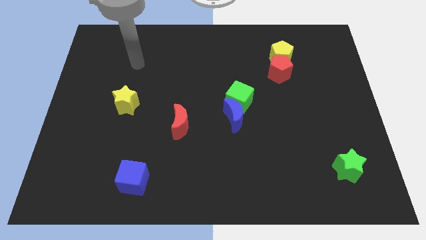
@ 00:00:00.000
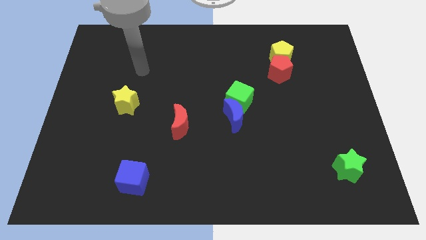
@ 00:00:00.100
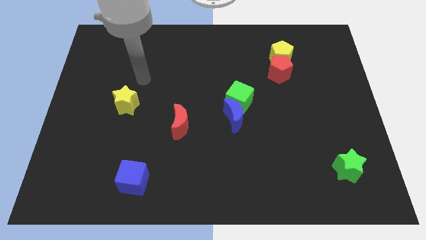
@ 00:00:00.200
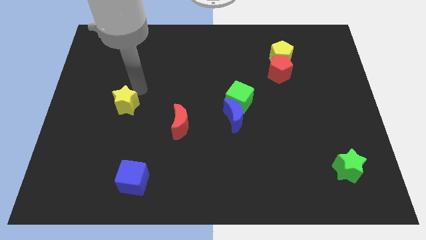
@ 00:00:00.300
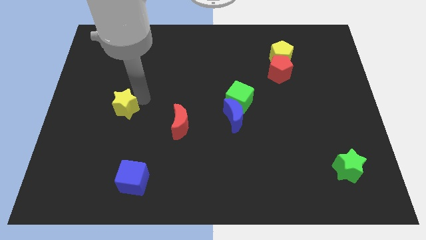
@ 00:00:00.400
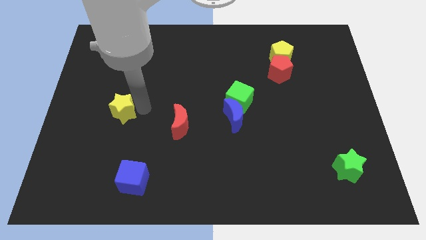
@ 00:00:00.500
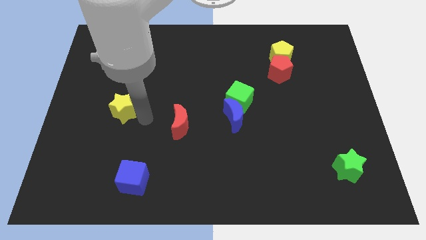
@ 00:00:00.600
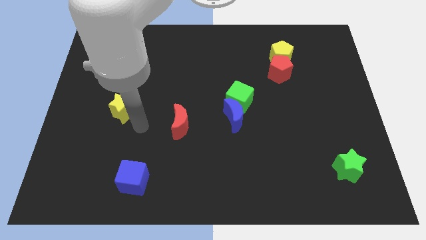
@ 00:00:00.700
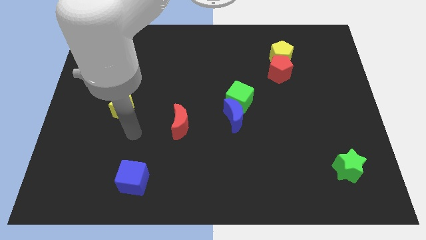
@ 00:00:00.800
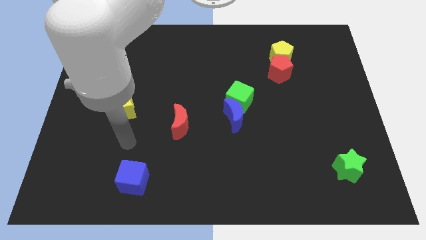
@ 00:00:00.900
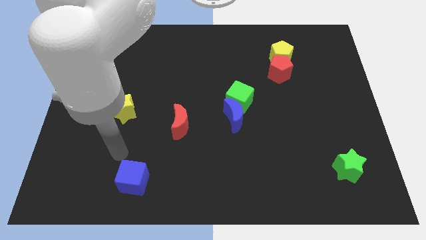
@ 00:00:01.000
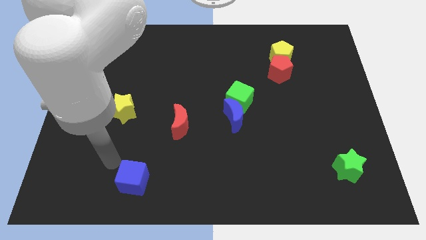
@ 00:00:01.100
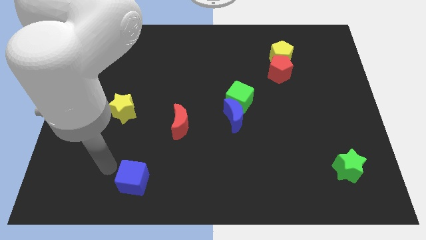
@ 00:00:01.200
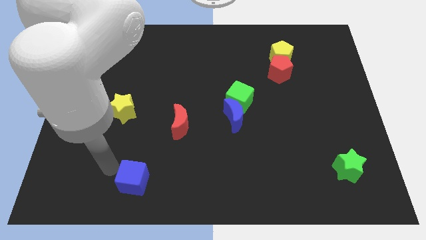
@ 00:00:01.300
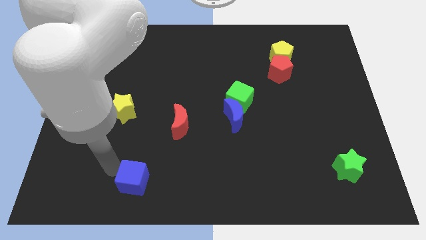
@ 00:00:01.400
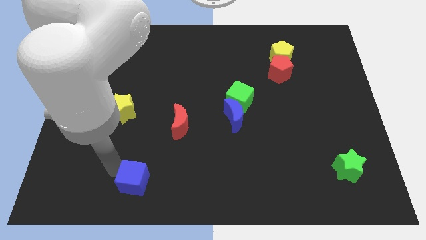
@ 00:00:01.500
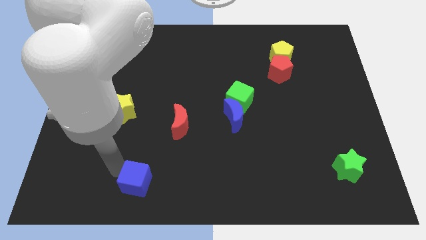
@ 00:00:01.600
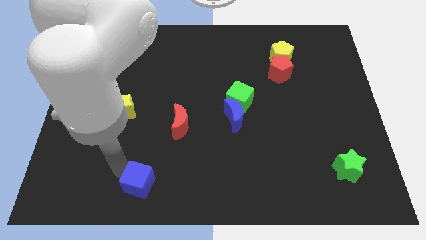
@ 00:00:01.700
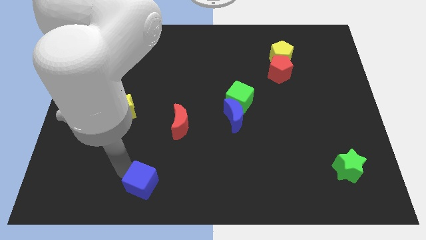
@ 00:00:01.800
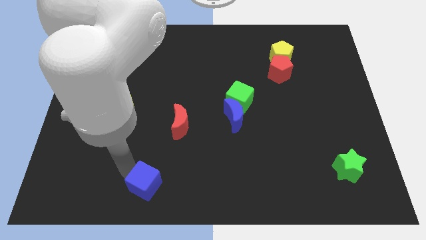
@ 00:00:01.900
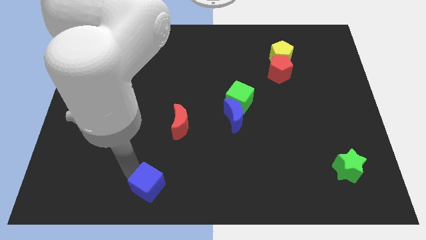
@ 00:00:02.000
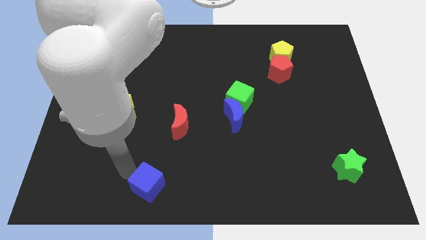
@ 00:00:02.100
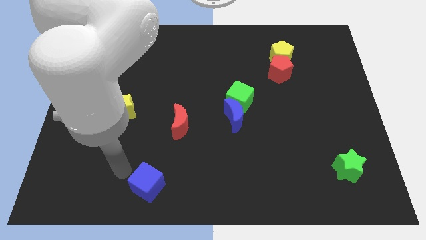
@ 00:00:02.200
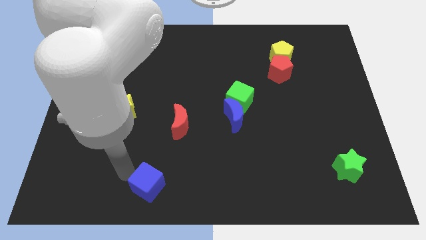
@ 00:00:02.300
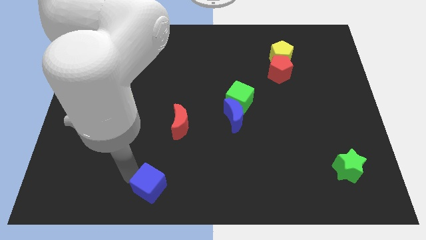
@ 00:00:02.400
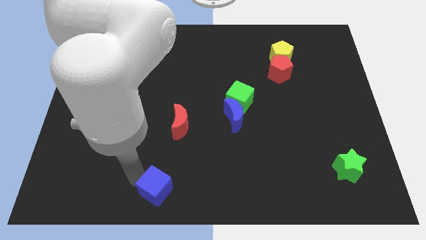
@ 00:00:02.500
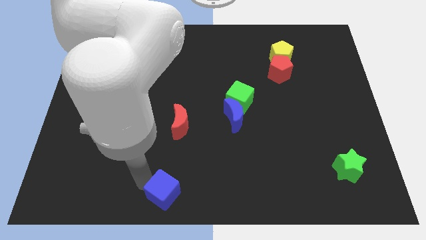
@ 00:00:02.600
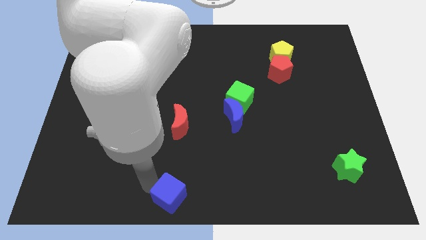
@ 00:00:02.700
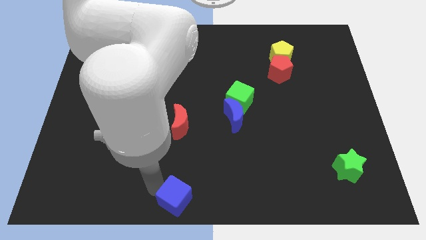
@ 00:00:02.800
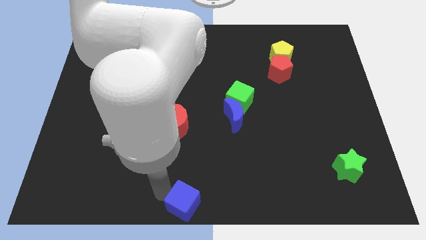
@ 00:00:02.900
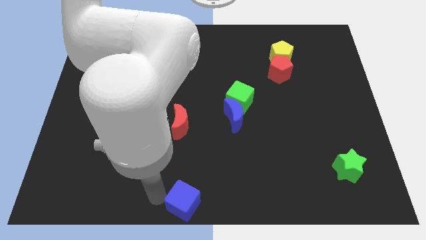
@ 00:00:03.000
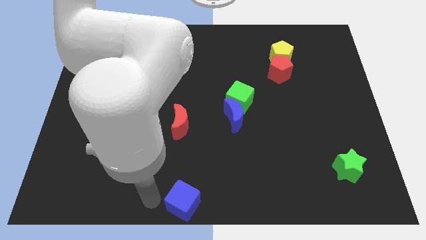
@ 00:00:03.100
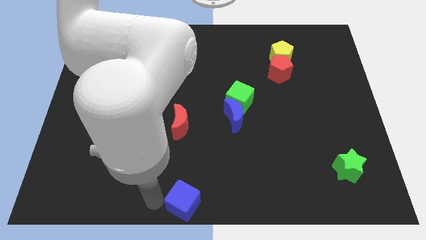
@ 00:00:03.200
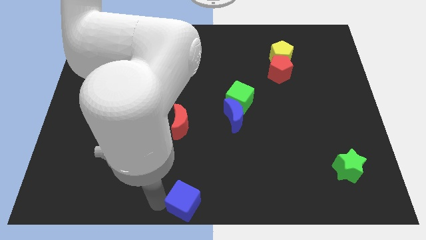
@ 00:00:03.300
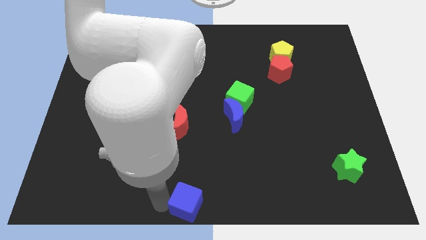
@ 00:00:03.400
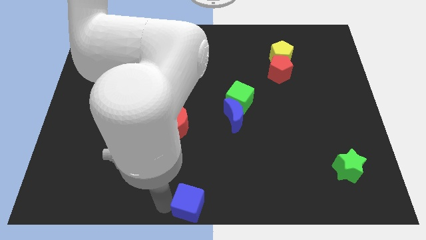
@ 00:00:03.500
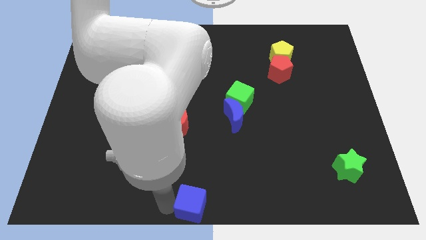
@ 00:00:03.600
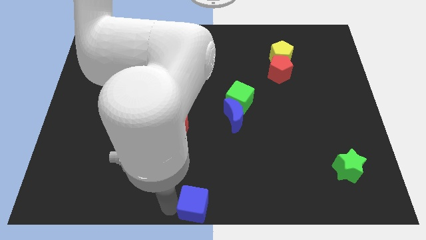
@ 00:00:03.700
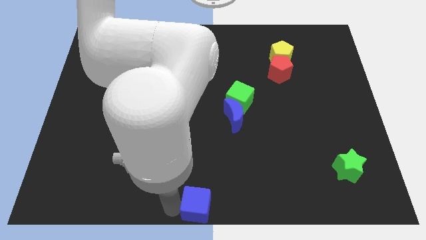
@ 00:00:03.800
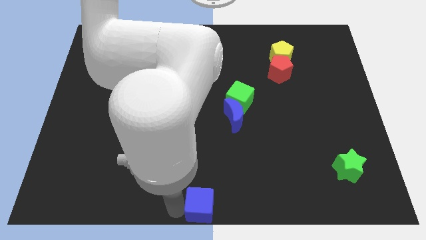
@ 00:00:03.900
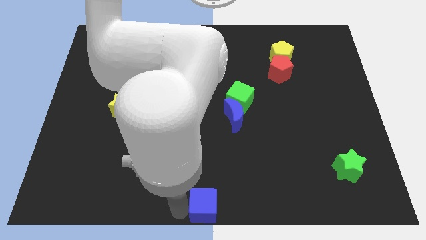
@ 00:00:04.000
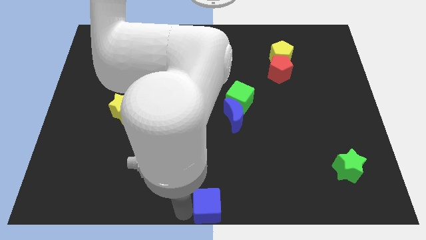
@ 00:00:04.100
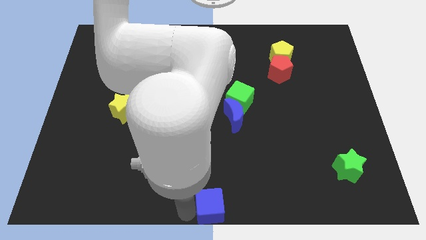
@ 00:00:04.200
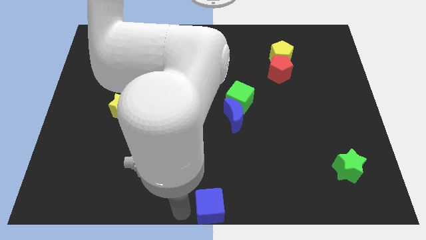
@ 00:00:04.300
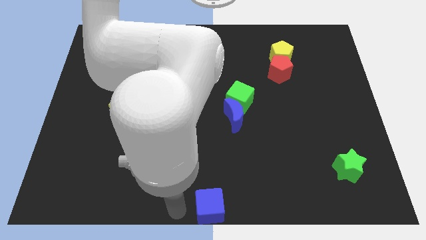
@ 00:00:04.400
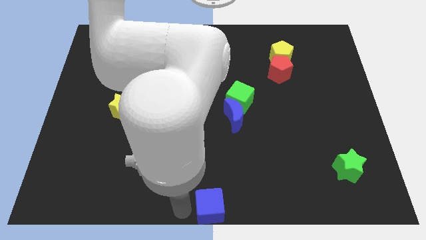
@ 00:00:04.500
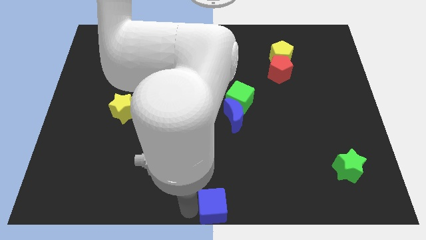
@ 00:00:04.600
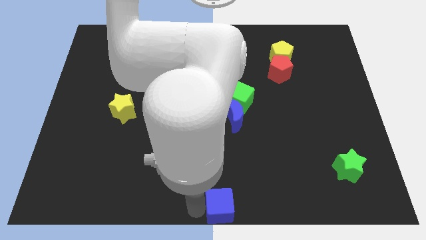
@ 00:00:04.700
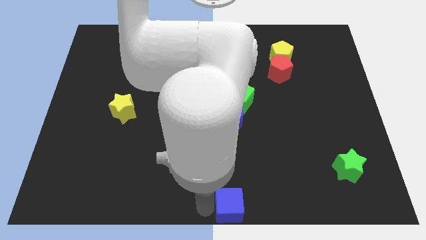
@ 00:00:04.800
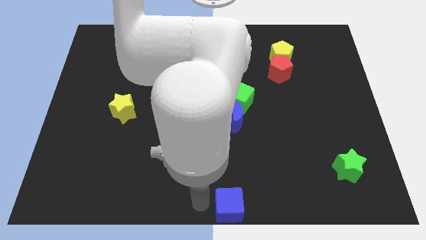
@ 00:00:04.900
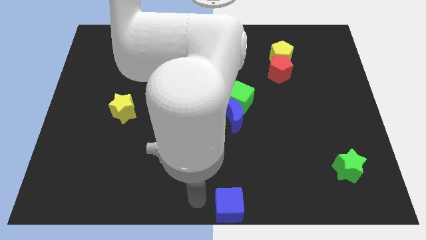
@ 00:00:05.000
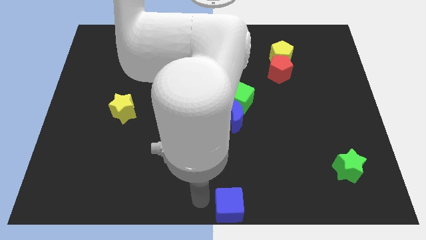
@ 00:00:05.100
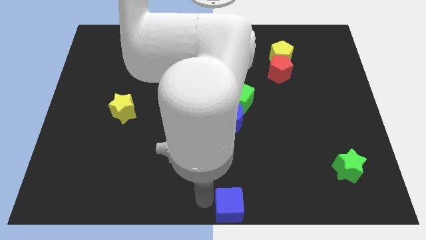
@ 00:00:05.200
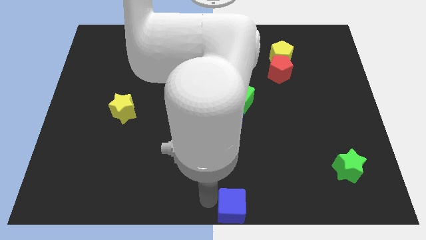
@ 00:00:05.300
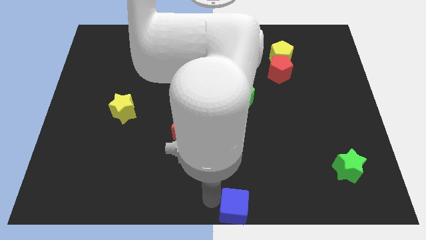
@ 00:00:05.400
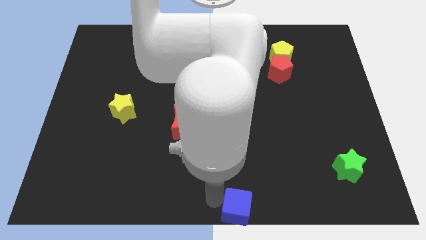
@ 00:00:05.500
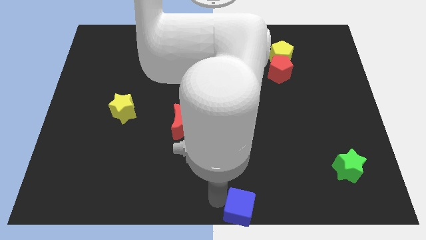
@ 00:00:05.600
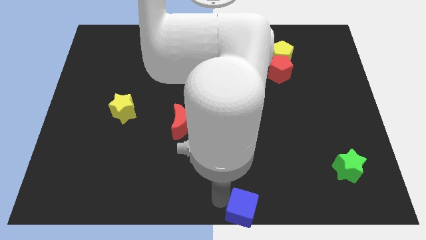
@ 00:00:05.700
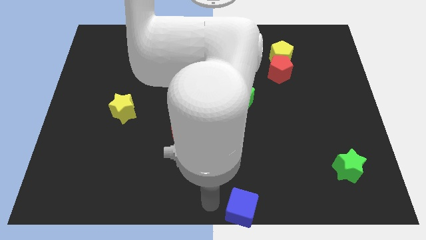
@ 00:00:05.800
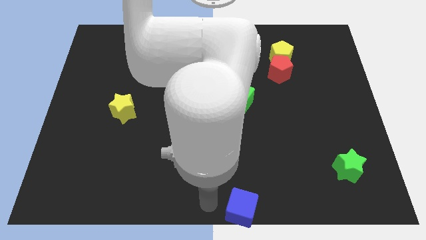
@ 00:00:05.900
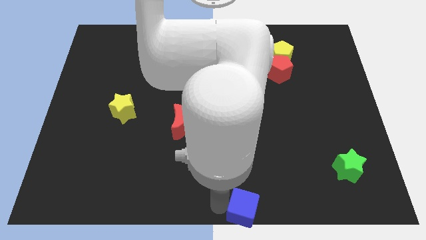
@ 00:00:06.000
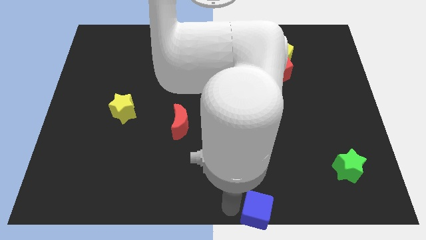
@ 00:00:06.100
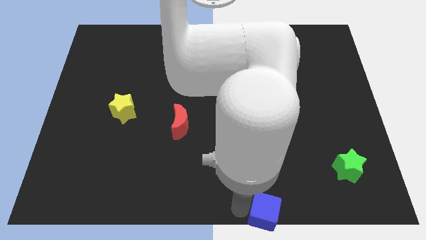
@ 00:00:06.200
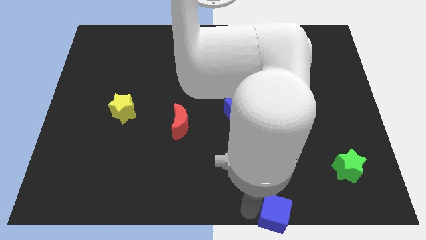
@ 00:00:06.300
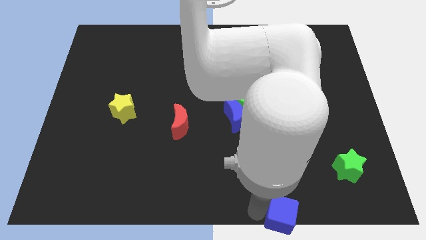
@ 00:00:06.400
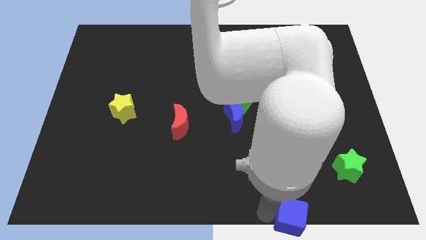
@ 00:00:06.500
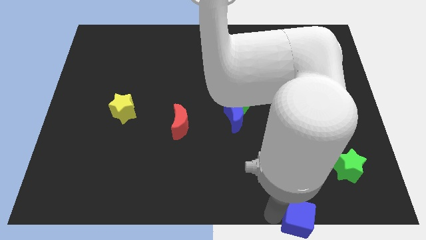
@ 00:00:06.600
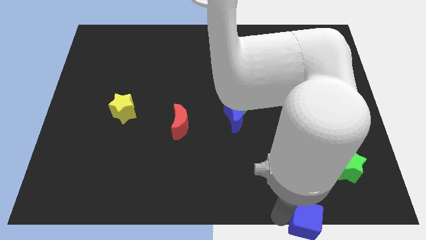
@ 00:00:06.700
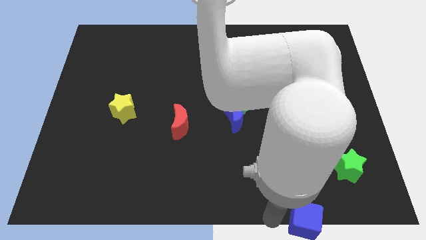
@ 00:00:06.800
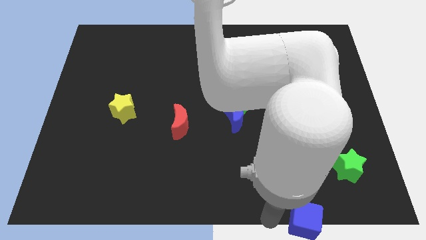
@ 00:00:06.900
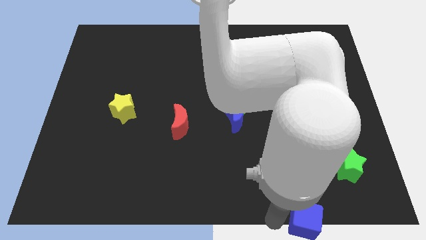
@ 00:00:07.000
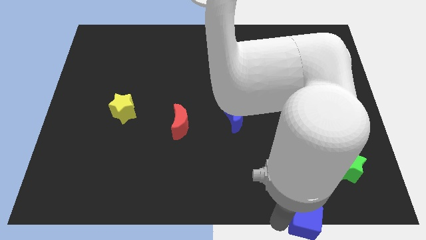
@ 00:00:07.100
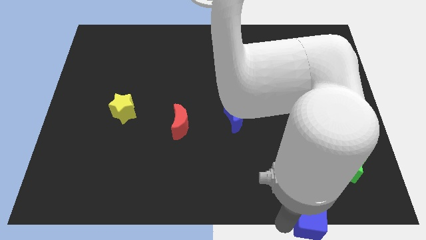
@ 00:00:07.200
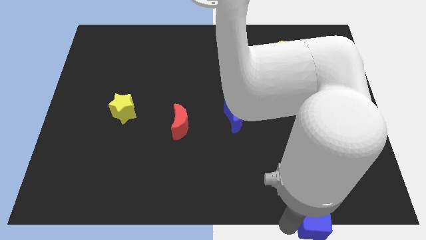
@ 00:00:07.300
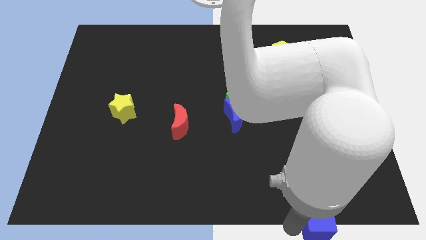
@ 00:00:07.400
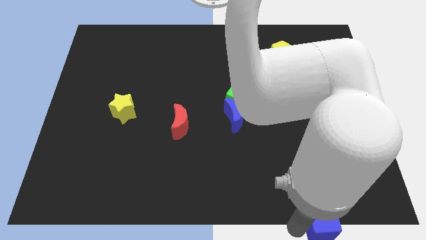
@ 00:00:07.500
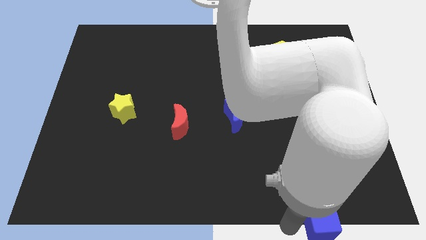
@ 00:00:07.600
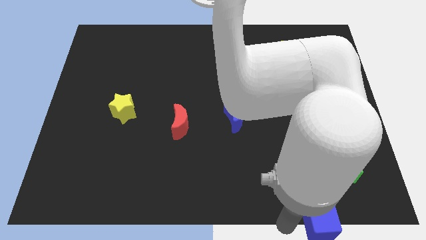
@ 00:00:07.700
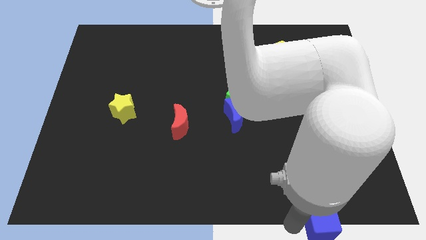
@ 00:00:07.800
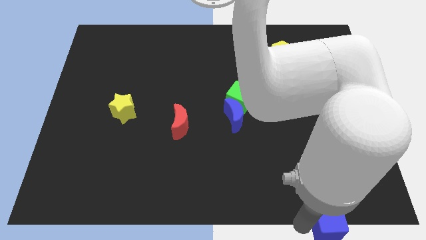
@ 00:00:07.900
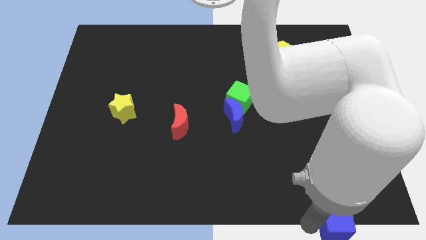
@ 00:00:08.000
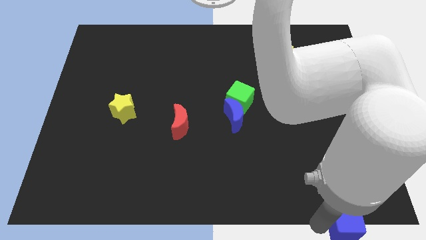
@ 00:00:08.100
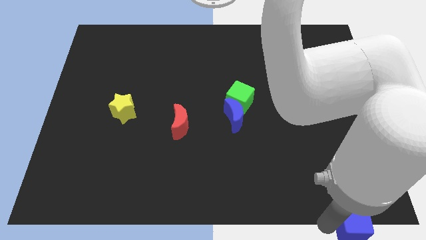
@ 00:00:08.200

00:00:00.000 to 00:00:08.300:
move the blue cube to the bottom right of the board
